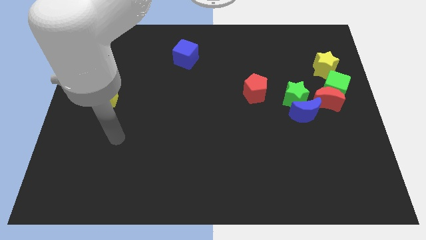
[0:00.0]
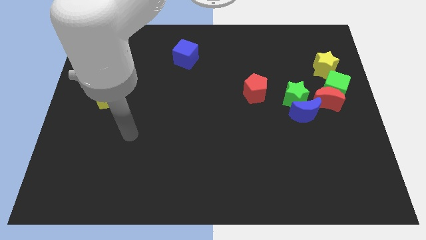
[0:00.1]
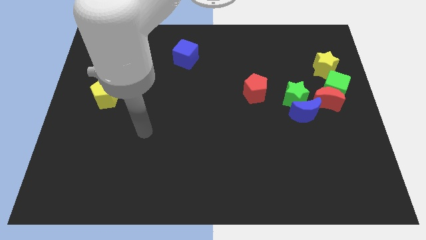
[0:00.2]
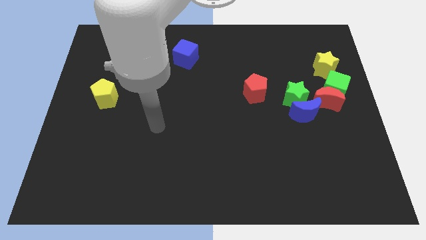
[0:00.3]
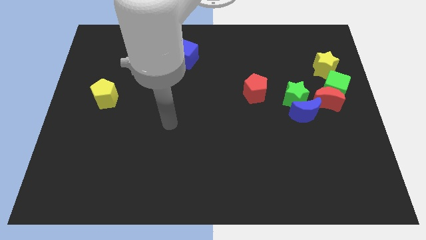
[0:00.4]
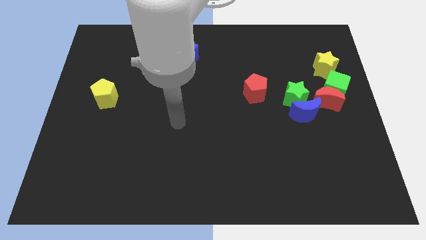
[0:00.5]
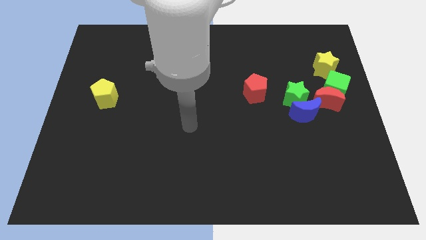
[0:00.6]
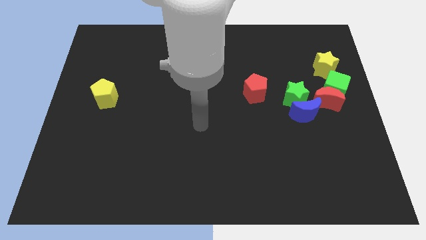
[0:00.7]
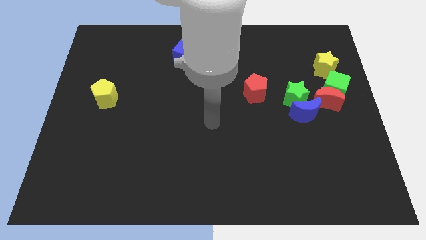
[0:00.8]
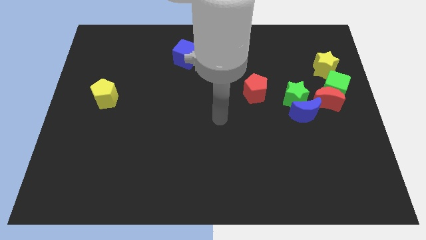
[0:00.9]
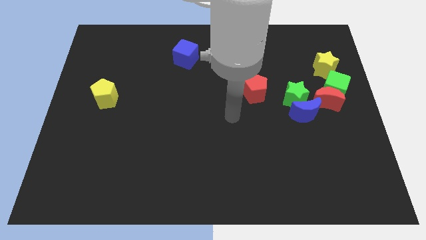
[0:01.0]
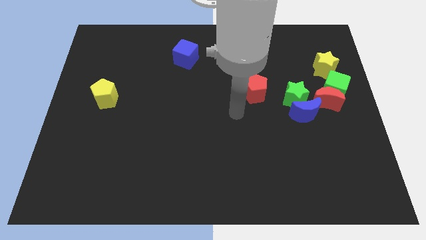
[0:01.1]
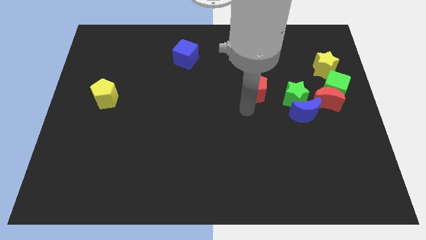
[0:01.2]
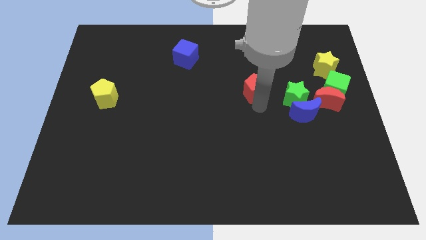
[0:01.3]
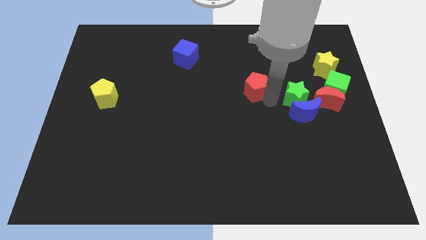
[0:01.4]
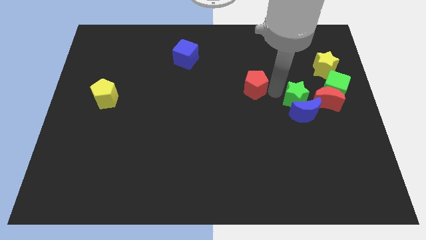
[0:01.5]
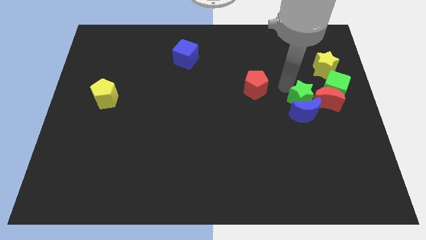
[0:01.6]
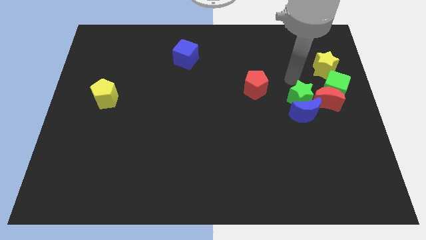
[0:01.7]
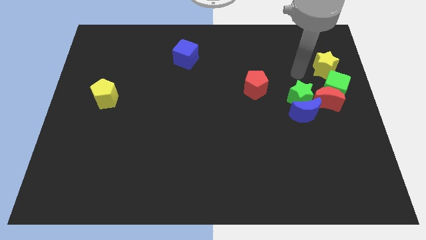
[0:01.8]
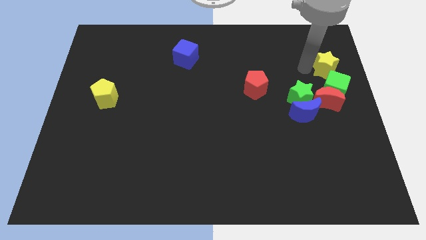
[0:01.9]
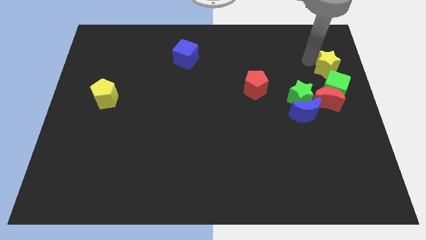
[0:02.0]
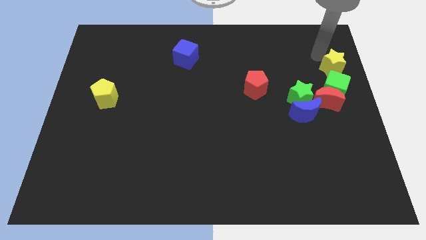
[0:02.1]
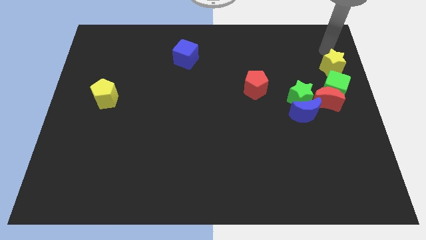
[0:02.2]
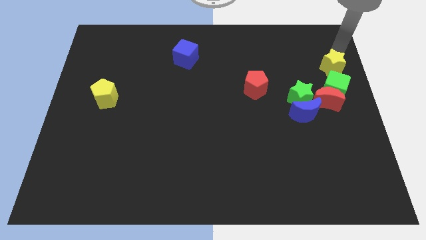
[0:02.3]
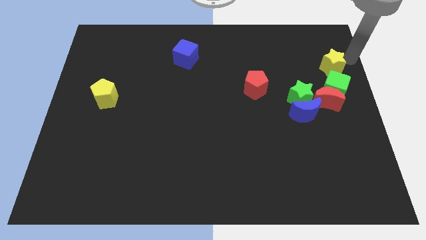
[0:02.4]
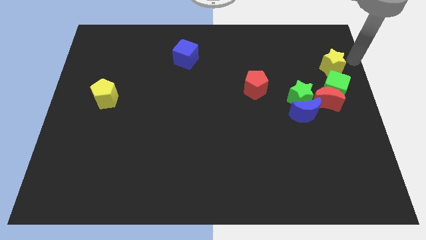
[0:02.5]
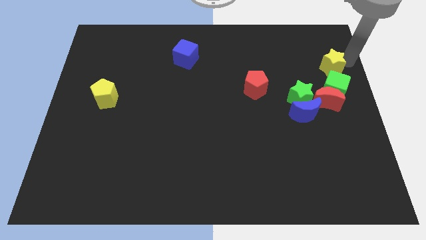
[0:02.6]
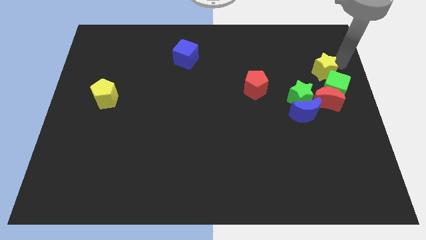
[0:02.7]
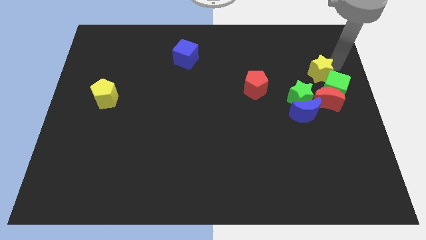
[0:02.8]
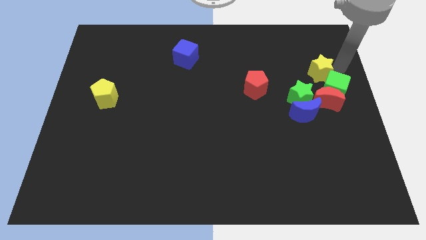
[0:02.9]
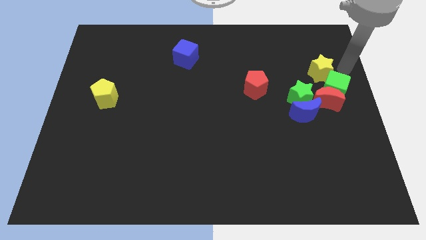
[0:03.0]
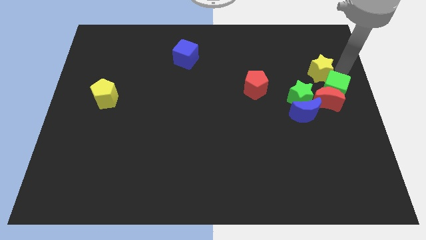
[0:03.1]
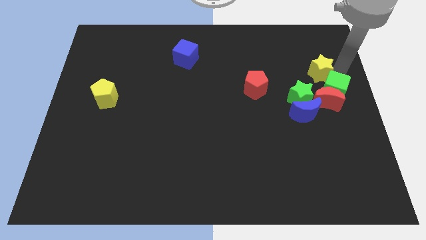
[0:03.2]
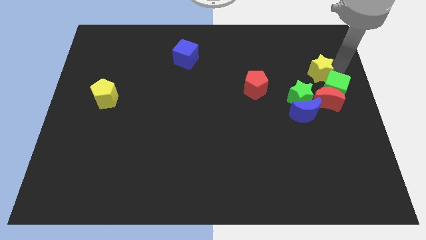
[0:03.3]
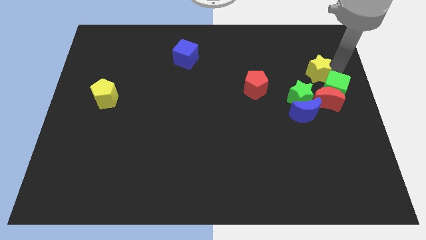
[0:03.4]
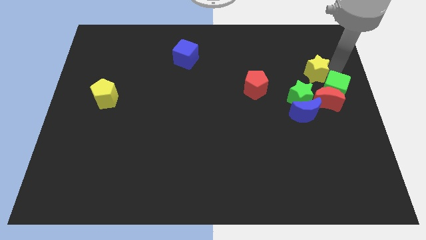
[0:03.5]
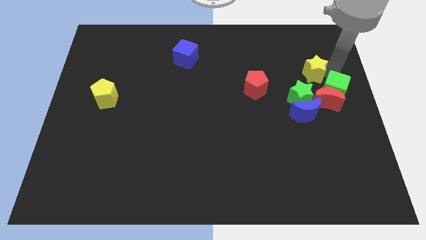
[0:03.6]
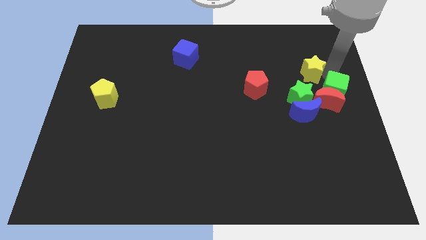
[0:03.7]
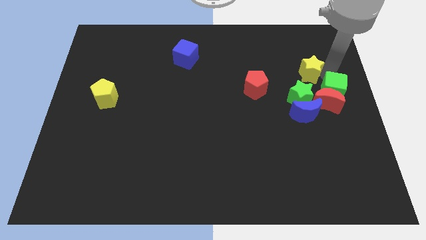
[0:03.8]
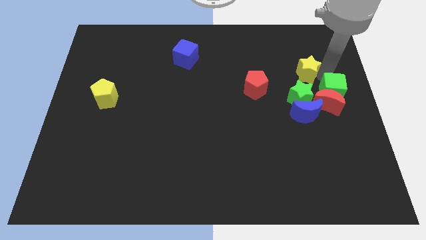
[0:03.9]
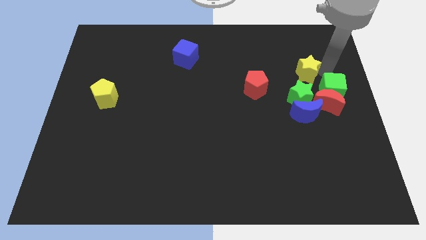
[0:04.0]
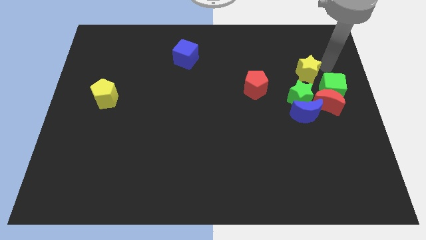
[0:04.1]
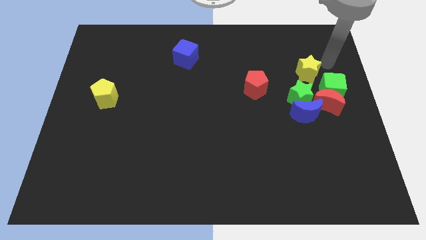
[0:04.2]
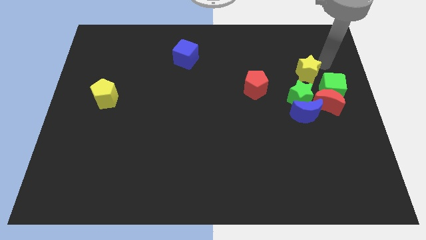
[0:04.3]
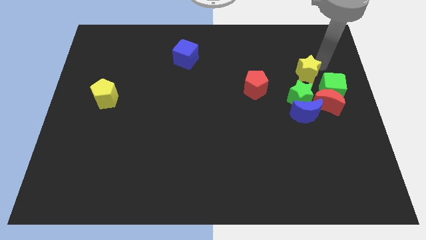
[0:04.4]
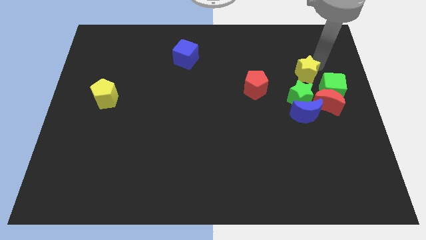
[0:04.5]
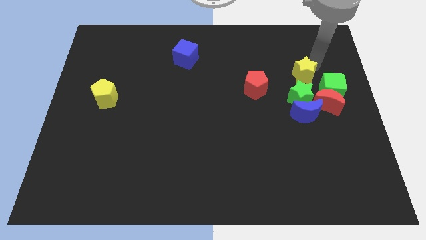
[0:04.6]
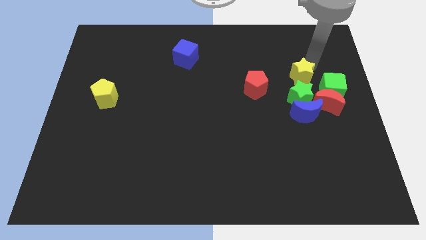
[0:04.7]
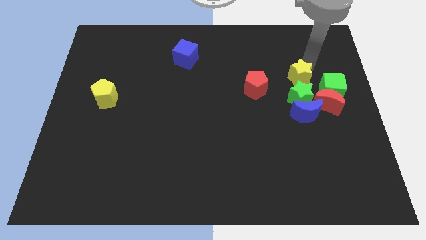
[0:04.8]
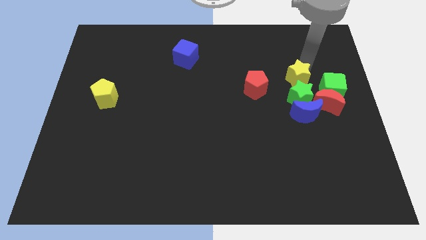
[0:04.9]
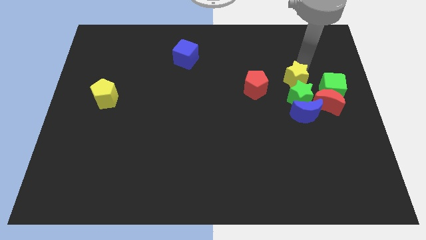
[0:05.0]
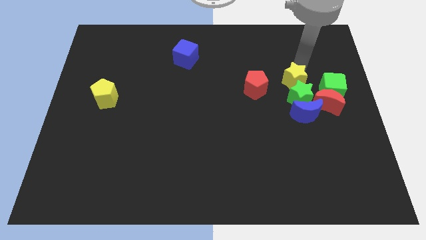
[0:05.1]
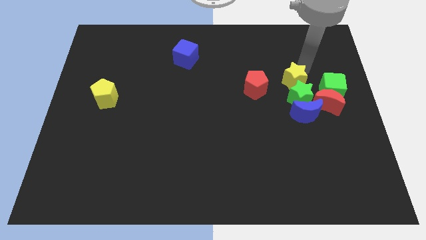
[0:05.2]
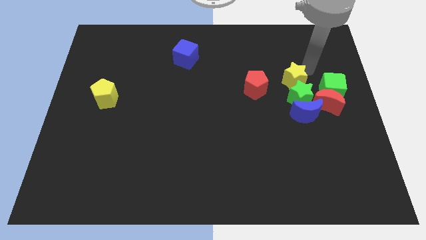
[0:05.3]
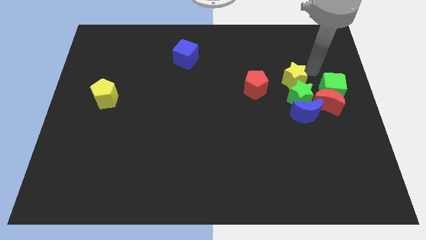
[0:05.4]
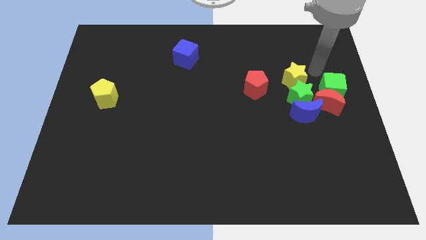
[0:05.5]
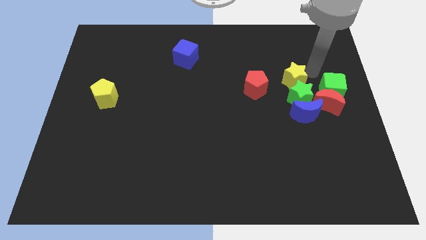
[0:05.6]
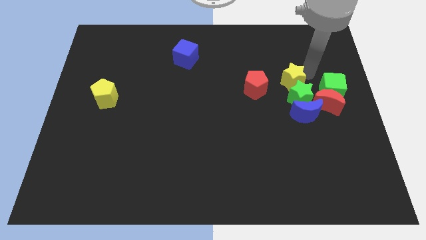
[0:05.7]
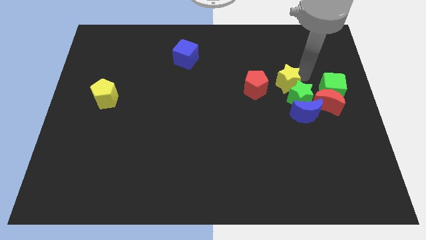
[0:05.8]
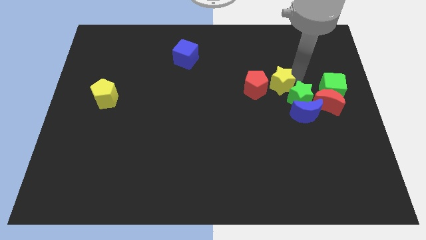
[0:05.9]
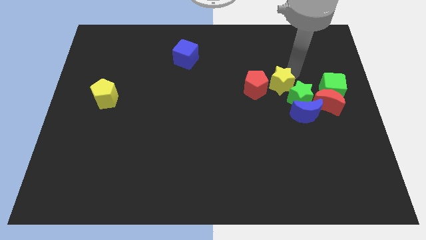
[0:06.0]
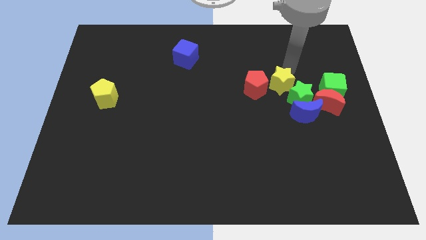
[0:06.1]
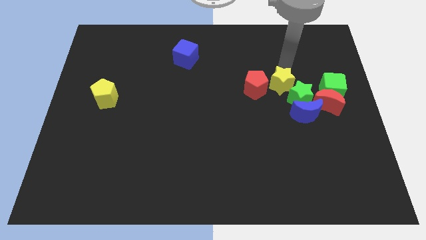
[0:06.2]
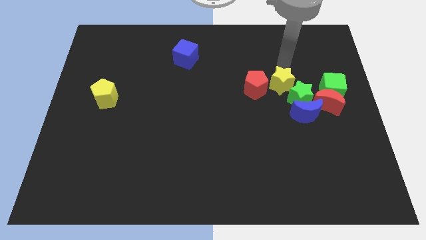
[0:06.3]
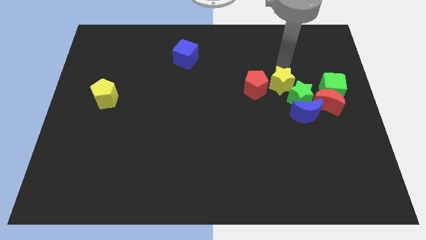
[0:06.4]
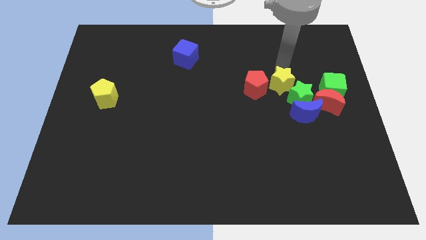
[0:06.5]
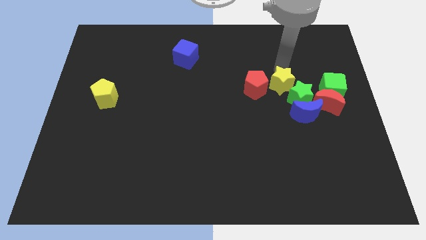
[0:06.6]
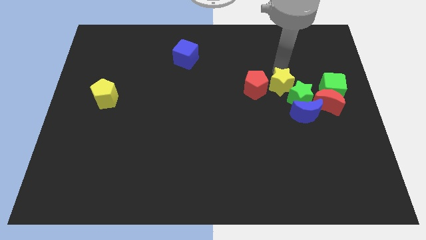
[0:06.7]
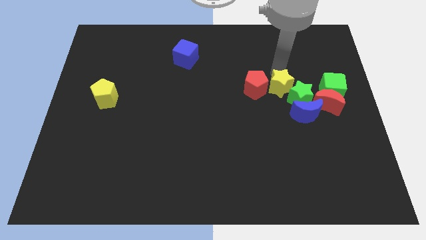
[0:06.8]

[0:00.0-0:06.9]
move the yellow star diagonally down and to the right of the red pentagon
